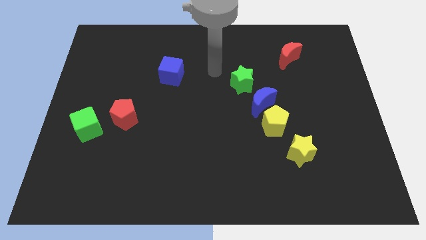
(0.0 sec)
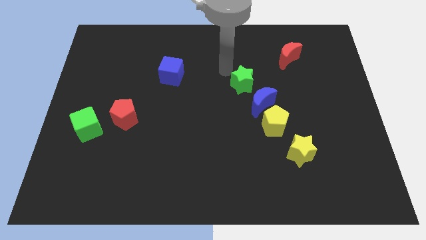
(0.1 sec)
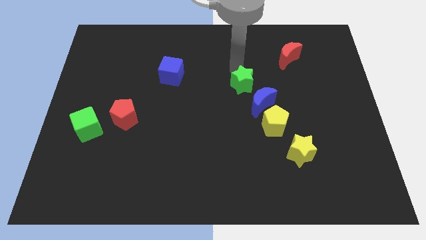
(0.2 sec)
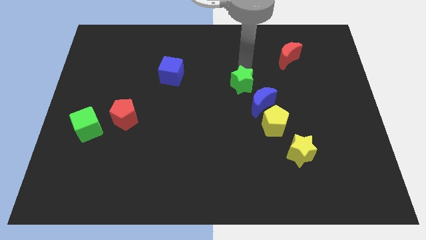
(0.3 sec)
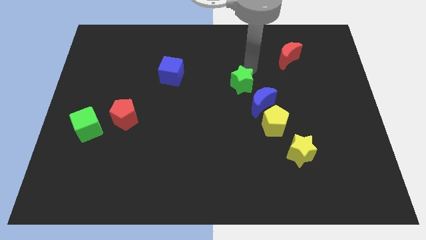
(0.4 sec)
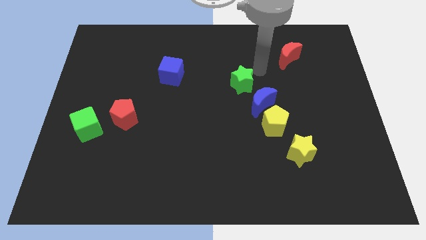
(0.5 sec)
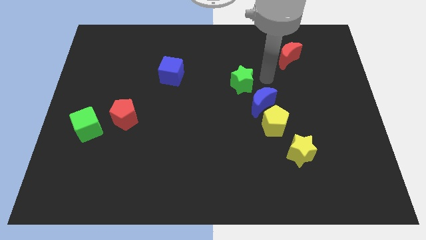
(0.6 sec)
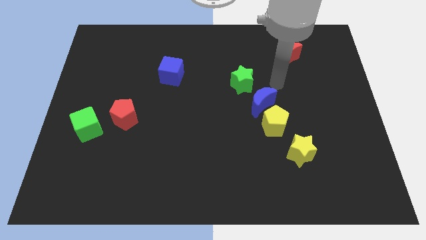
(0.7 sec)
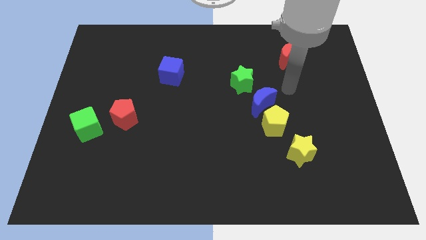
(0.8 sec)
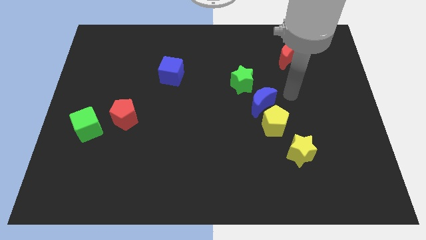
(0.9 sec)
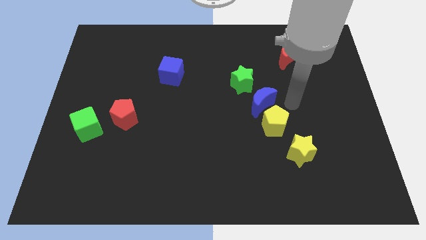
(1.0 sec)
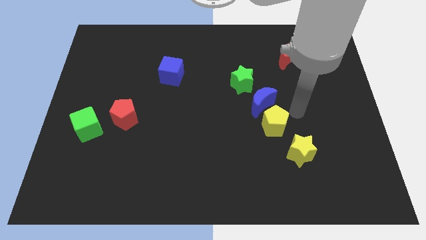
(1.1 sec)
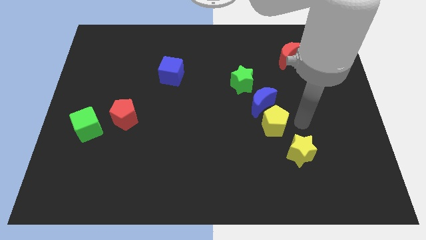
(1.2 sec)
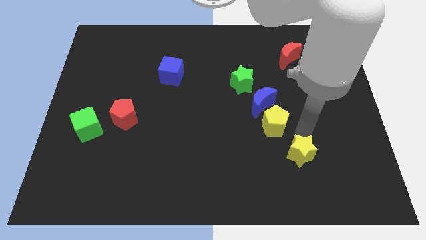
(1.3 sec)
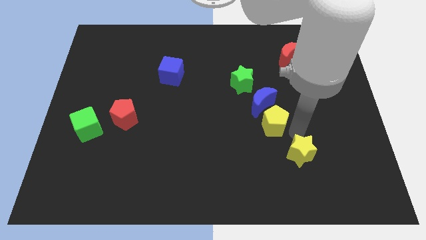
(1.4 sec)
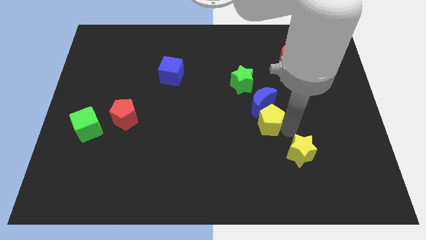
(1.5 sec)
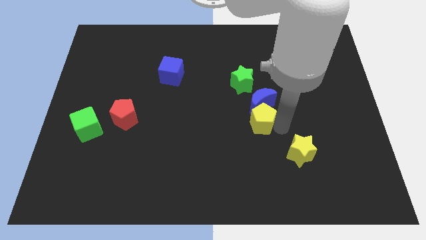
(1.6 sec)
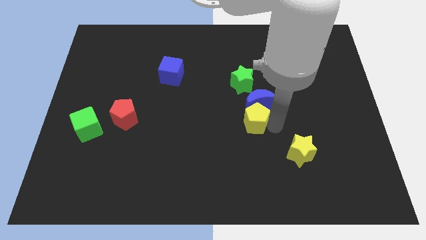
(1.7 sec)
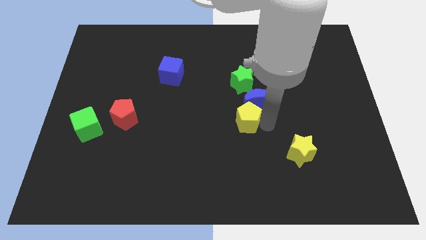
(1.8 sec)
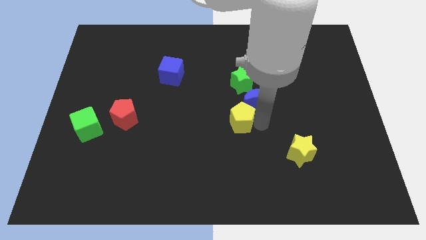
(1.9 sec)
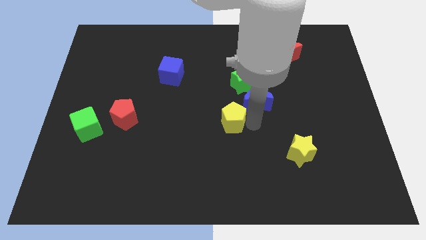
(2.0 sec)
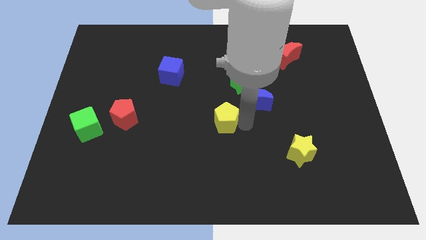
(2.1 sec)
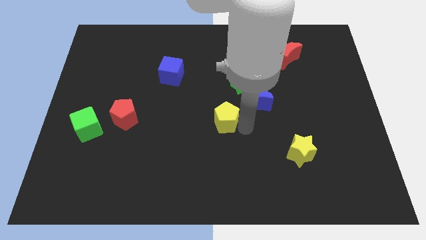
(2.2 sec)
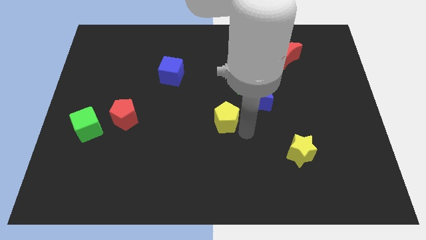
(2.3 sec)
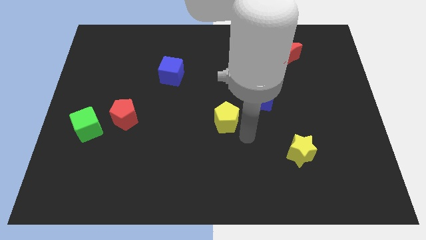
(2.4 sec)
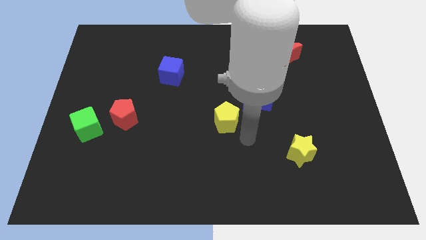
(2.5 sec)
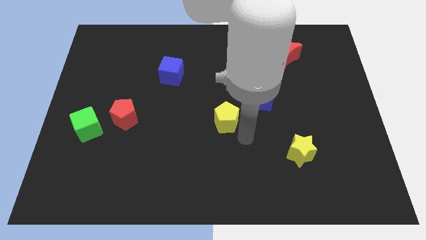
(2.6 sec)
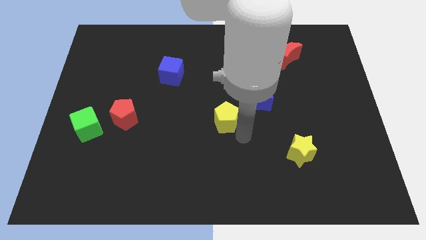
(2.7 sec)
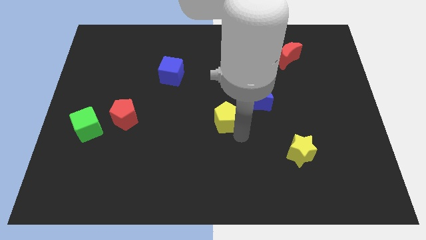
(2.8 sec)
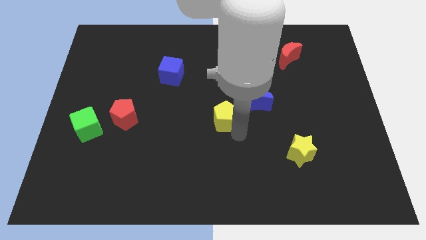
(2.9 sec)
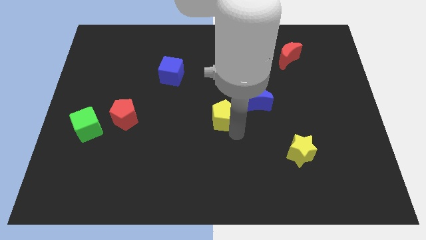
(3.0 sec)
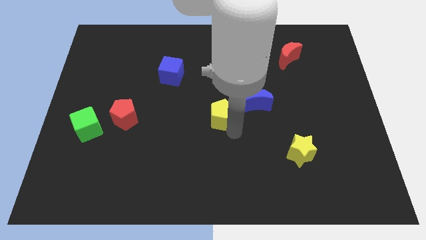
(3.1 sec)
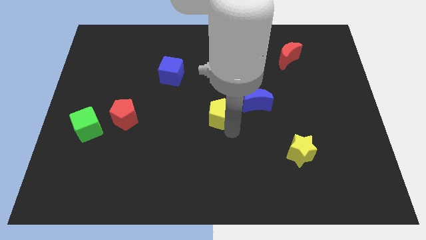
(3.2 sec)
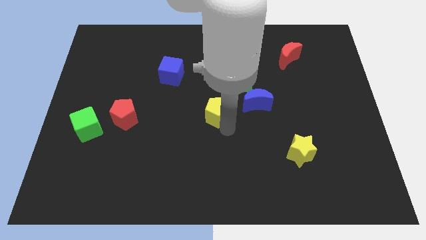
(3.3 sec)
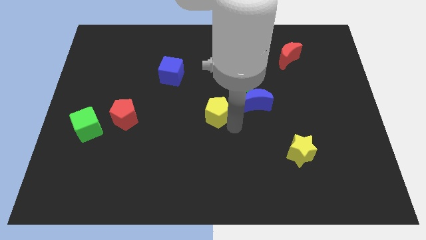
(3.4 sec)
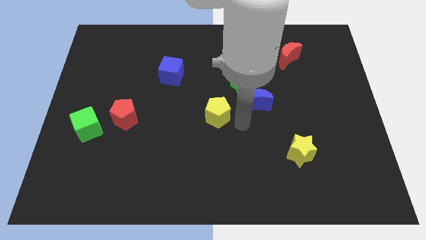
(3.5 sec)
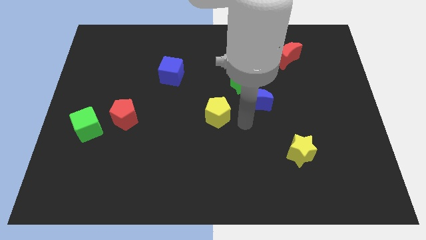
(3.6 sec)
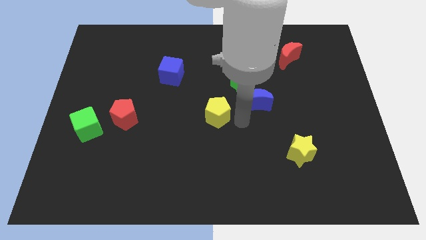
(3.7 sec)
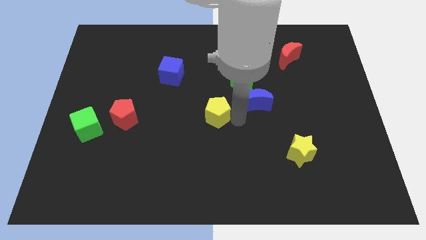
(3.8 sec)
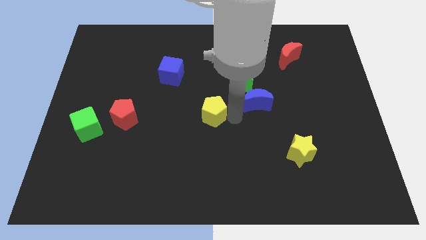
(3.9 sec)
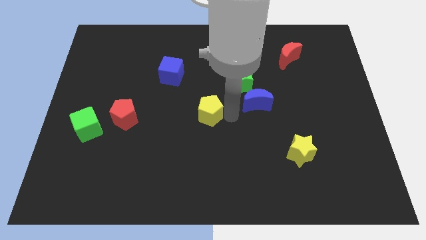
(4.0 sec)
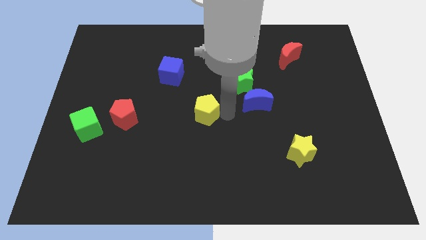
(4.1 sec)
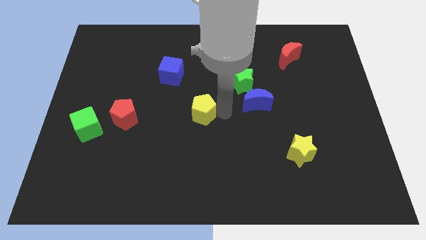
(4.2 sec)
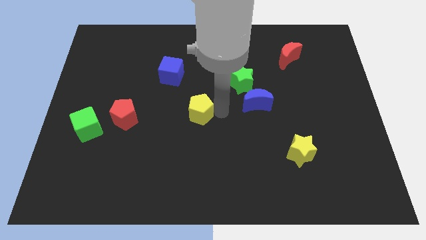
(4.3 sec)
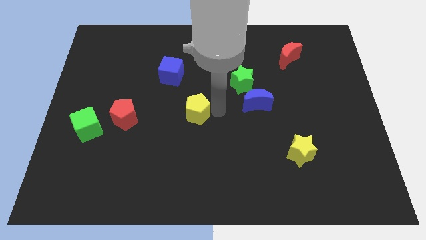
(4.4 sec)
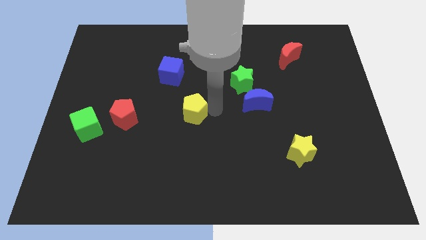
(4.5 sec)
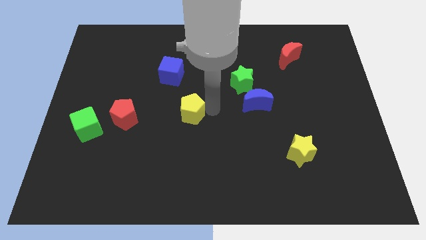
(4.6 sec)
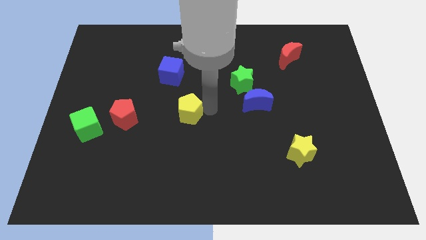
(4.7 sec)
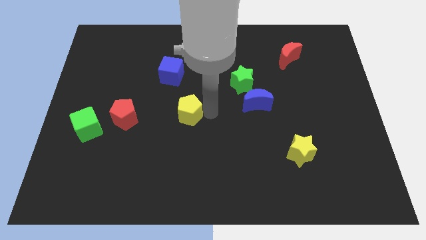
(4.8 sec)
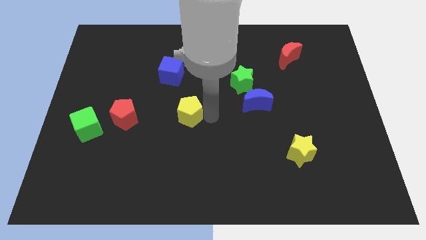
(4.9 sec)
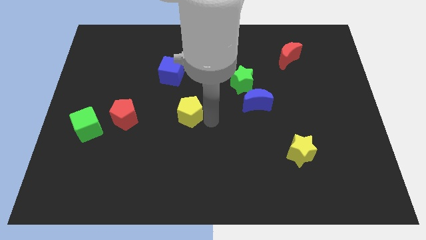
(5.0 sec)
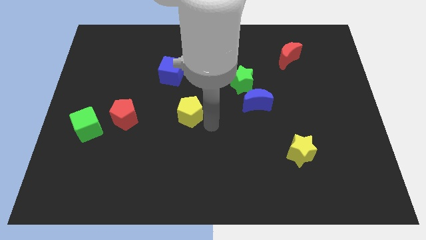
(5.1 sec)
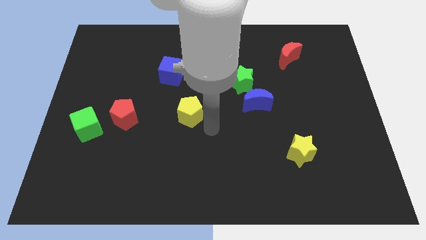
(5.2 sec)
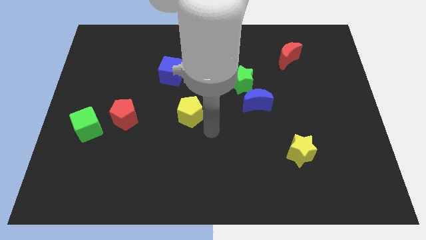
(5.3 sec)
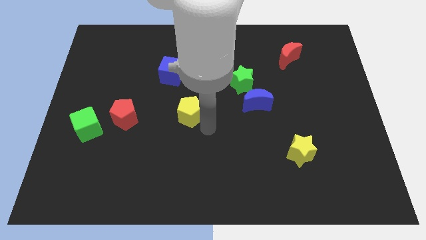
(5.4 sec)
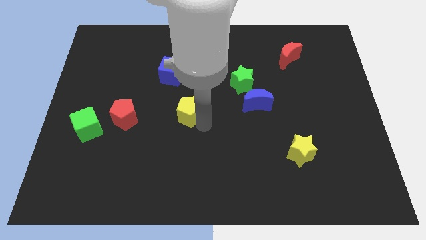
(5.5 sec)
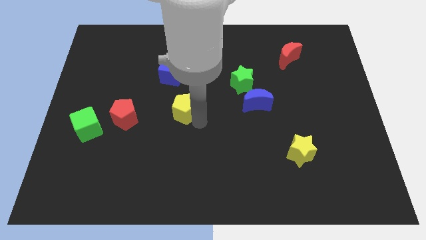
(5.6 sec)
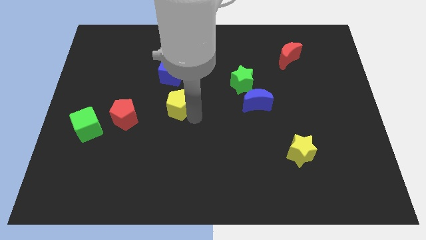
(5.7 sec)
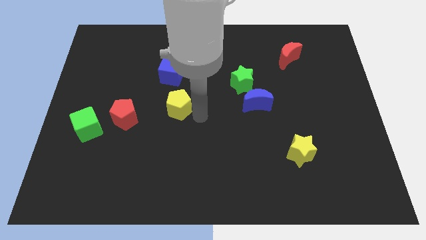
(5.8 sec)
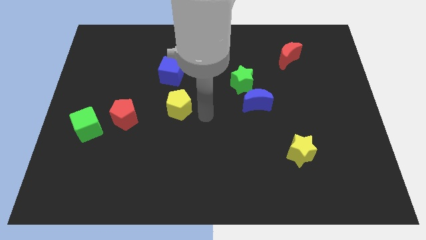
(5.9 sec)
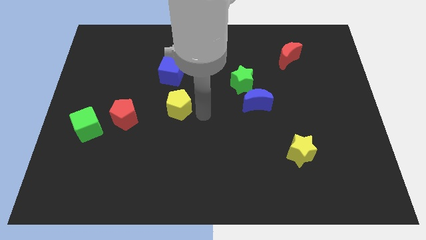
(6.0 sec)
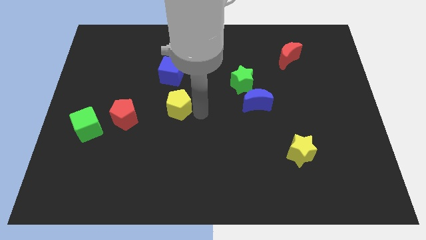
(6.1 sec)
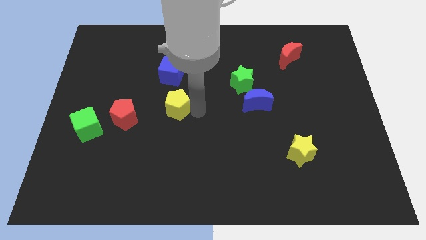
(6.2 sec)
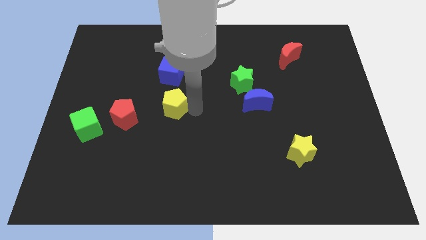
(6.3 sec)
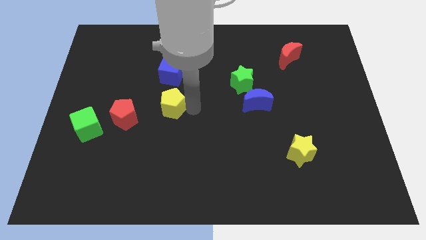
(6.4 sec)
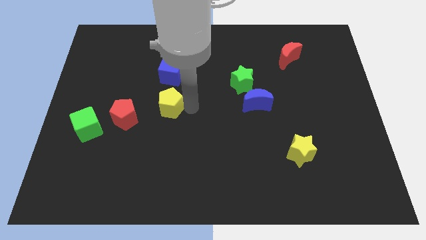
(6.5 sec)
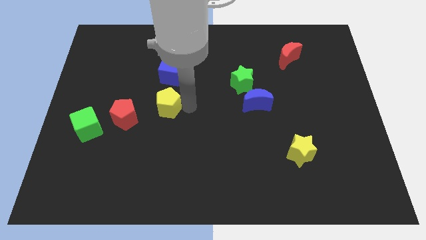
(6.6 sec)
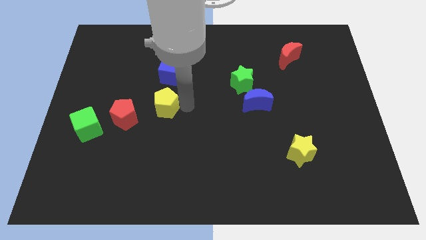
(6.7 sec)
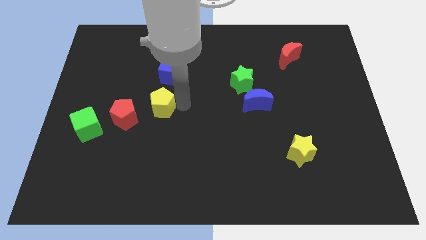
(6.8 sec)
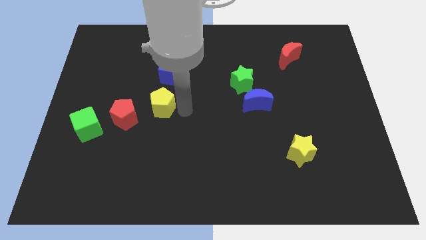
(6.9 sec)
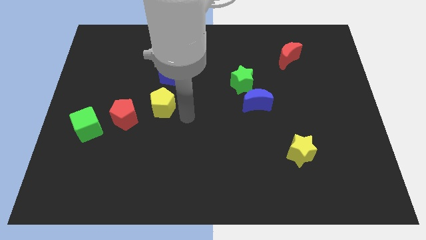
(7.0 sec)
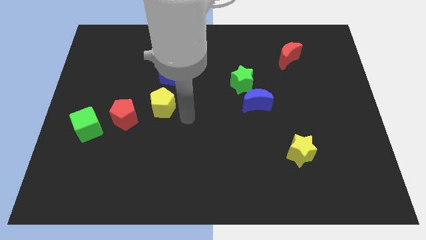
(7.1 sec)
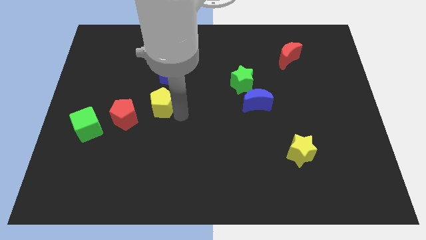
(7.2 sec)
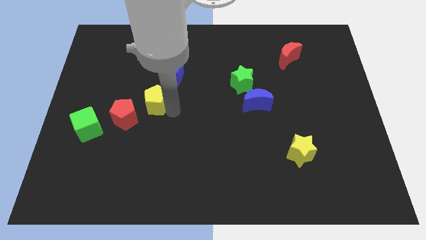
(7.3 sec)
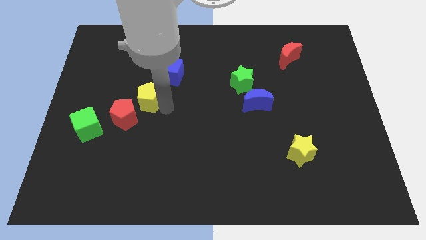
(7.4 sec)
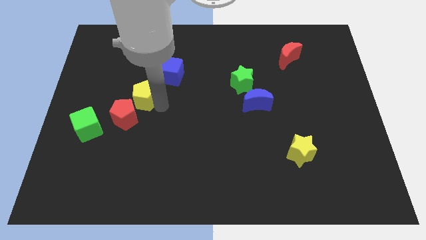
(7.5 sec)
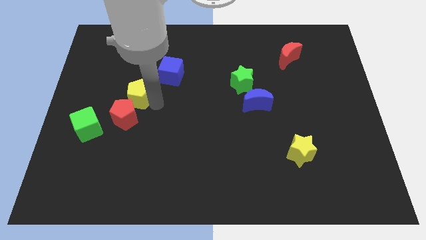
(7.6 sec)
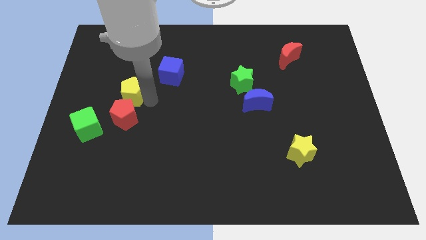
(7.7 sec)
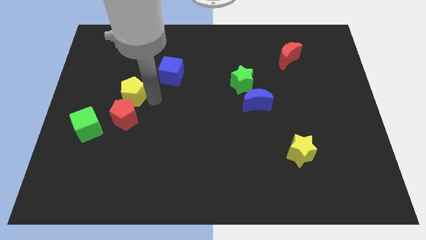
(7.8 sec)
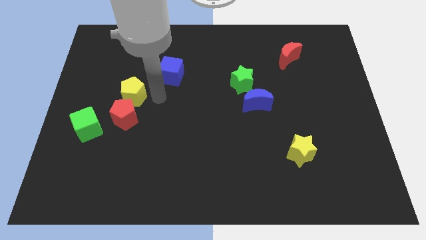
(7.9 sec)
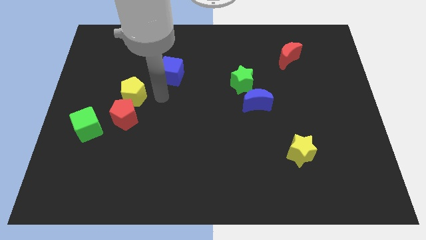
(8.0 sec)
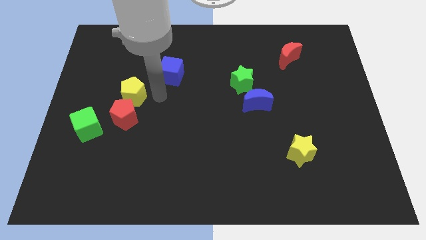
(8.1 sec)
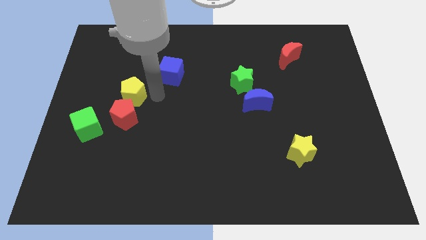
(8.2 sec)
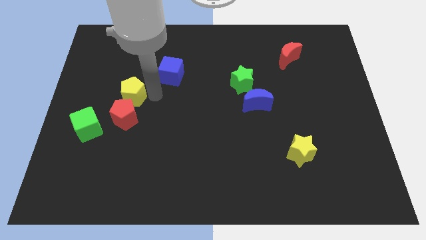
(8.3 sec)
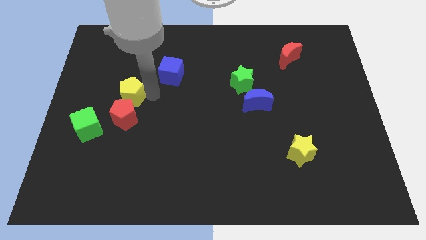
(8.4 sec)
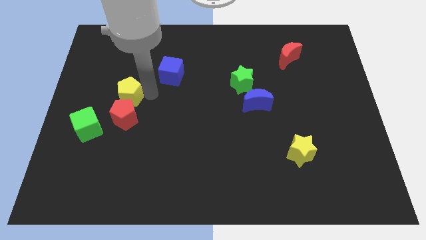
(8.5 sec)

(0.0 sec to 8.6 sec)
push the yellow pentagon diagonally up and to the left of the red pentagon
